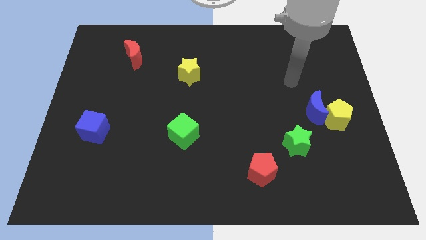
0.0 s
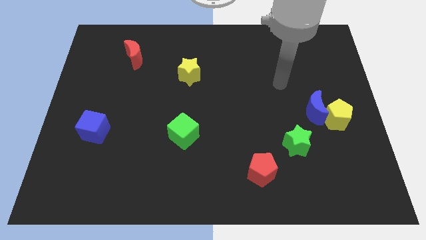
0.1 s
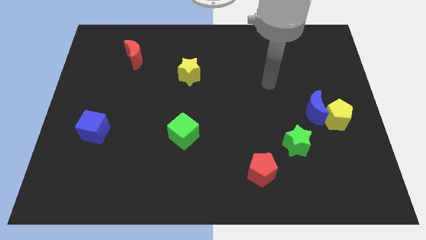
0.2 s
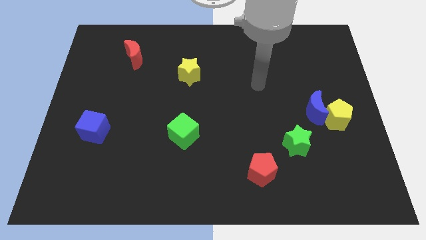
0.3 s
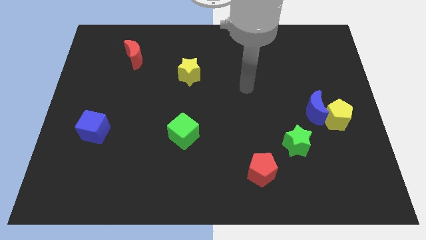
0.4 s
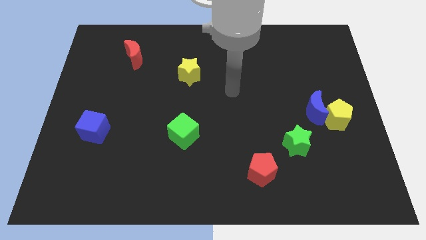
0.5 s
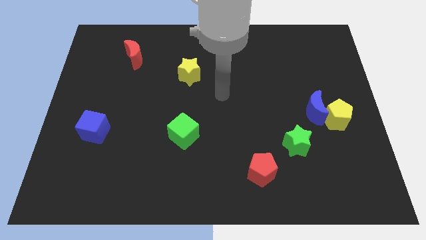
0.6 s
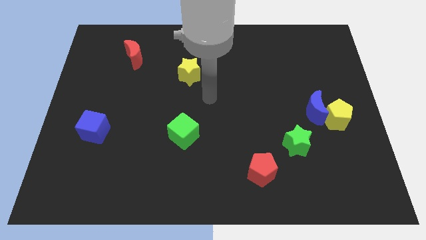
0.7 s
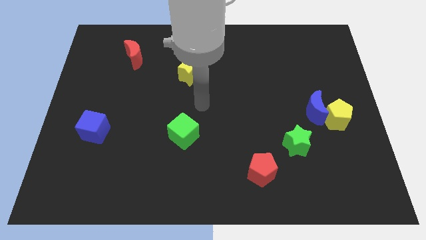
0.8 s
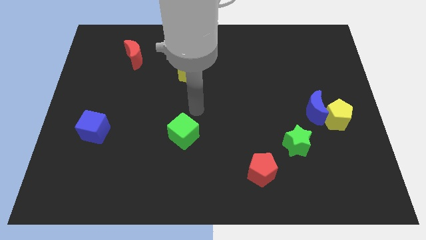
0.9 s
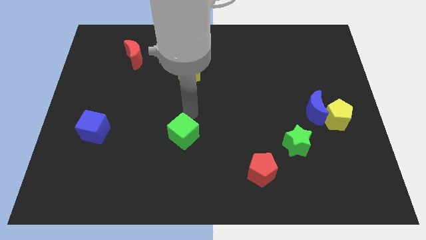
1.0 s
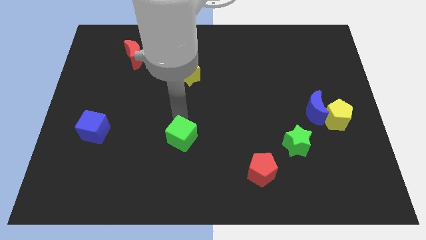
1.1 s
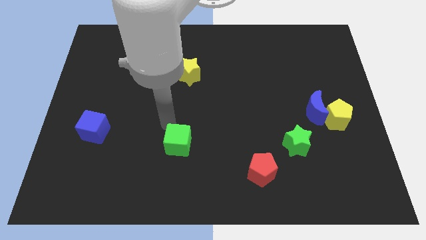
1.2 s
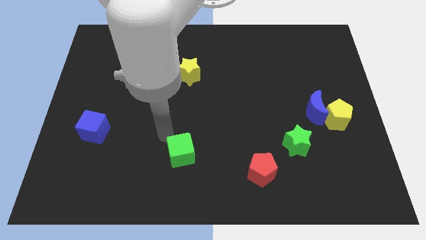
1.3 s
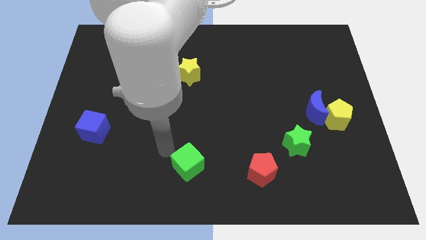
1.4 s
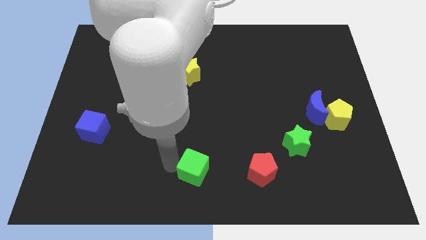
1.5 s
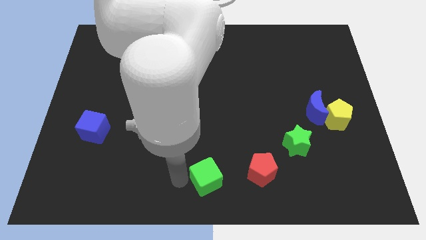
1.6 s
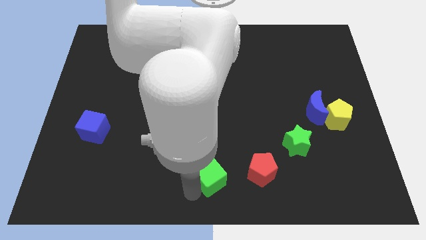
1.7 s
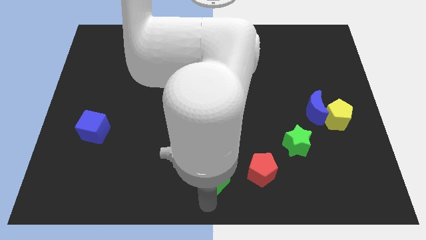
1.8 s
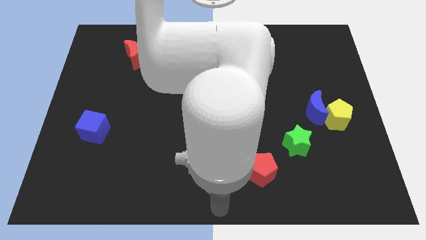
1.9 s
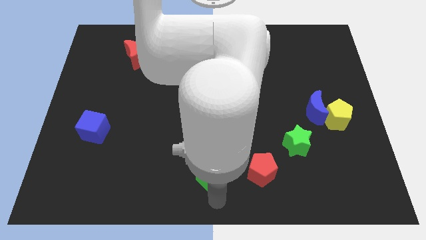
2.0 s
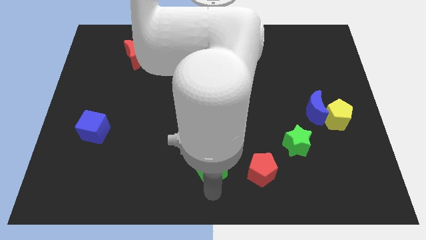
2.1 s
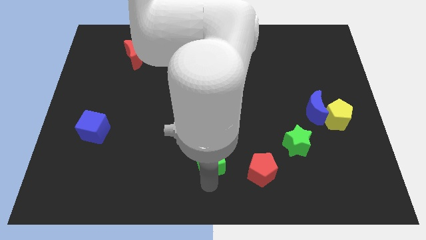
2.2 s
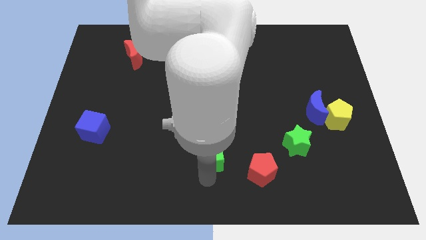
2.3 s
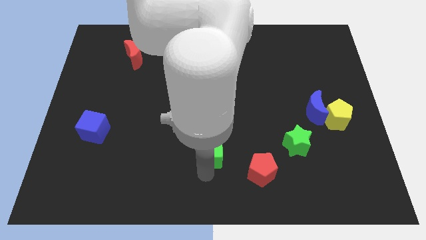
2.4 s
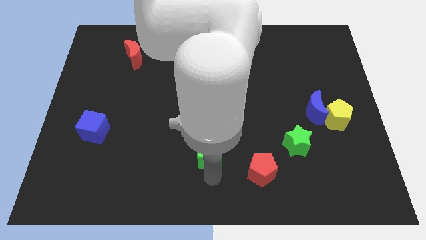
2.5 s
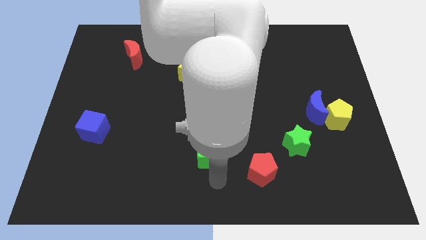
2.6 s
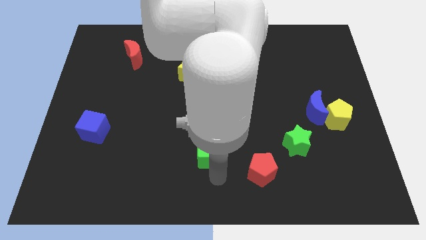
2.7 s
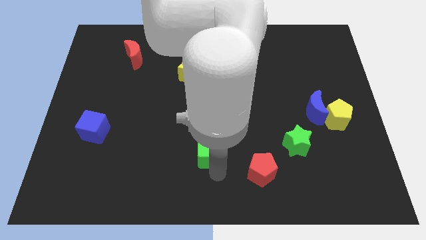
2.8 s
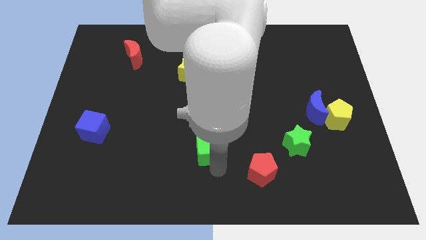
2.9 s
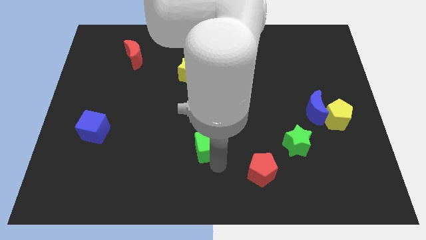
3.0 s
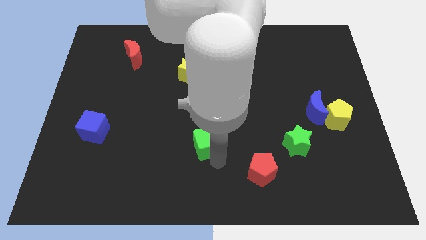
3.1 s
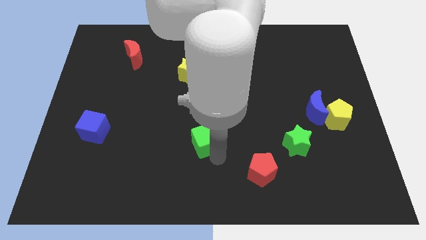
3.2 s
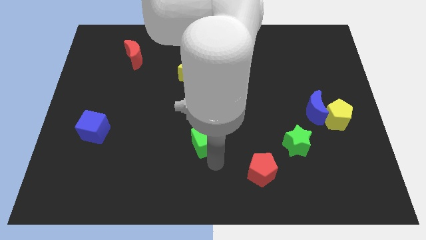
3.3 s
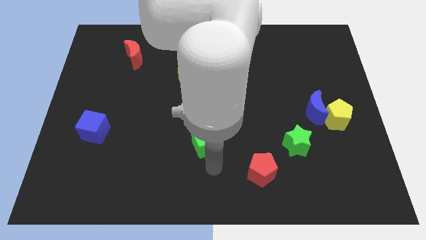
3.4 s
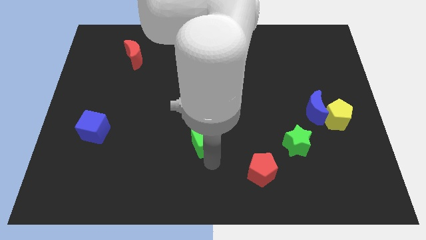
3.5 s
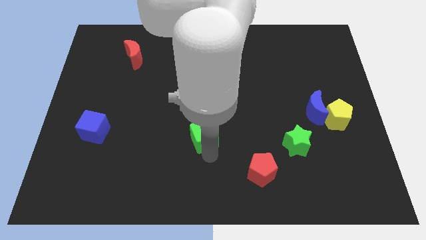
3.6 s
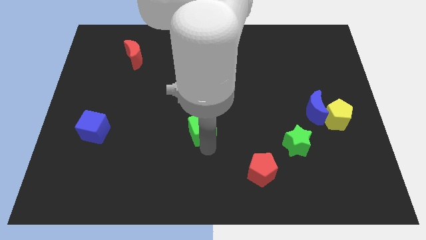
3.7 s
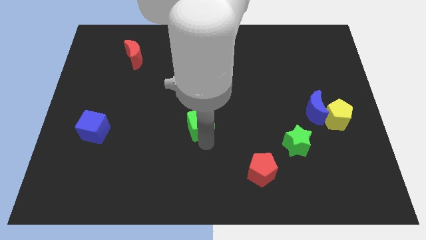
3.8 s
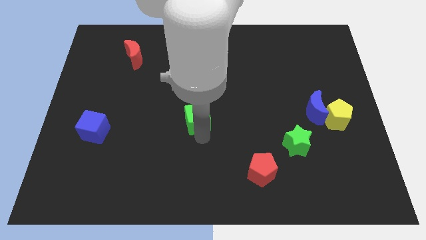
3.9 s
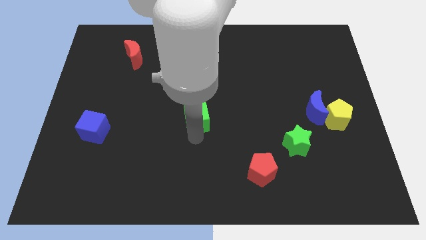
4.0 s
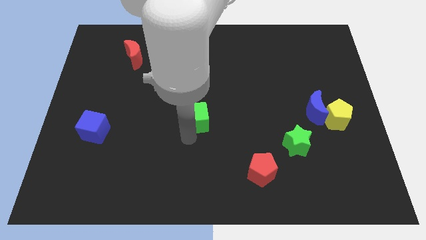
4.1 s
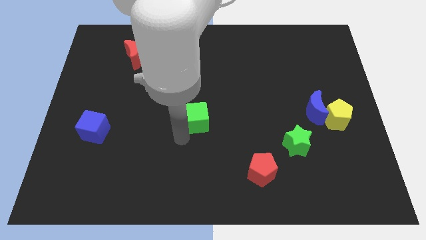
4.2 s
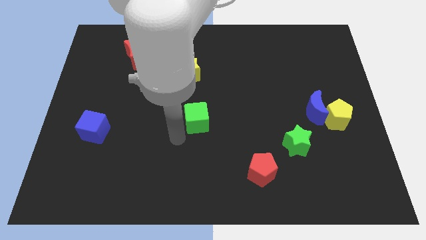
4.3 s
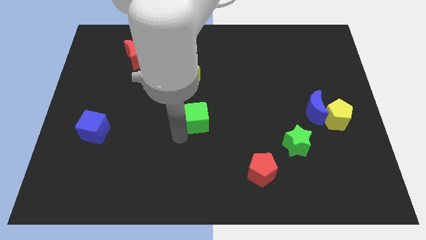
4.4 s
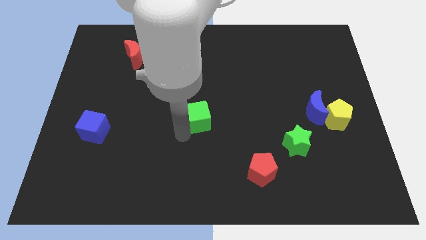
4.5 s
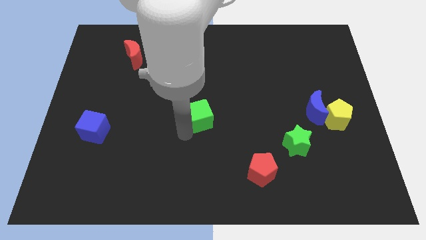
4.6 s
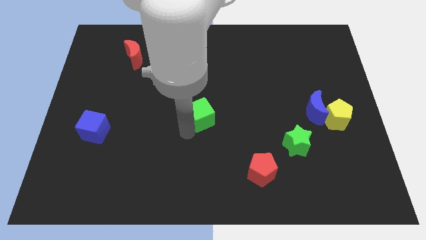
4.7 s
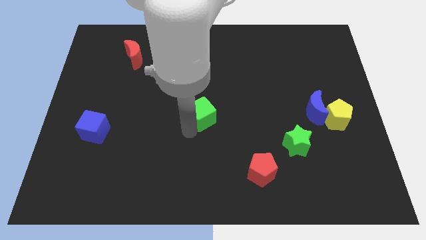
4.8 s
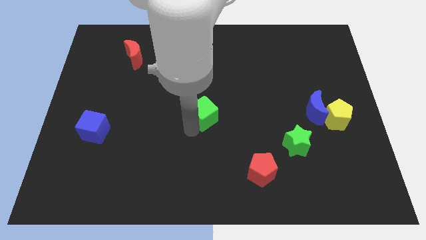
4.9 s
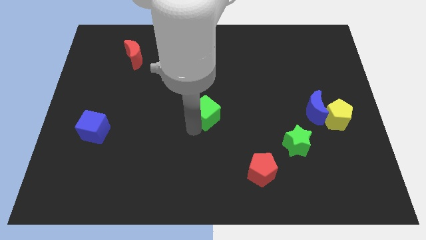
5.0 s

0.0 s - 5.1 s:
slide the green cube a little up and then right

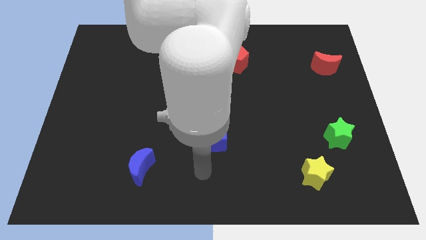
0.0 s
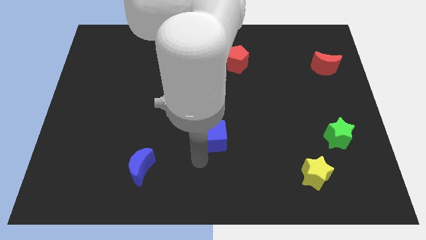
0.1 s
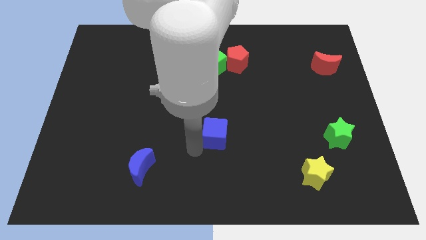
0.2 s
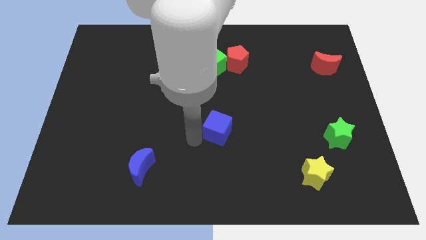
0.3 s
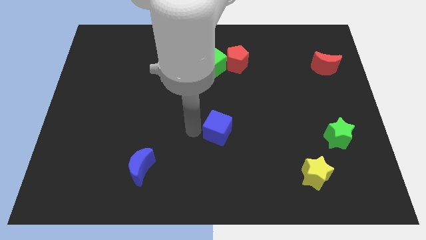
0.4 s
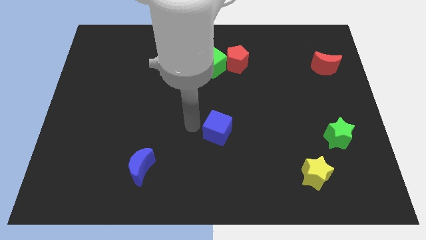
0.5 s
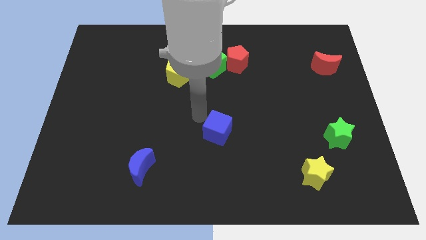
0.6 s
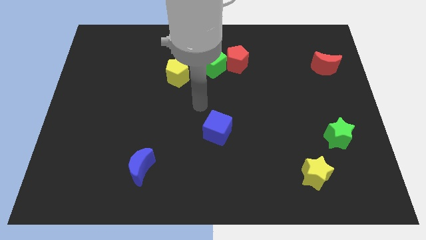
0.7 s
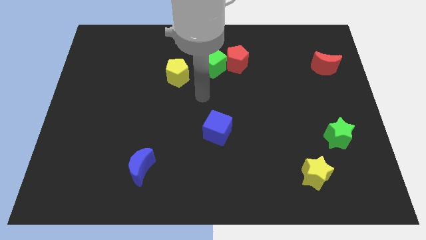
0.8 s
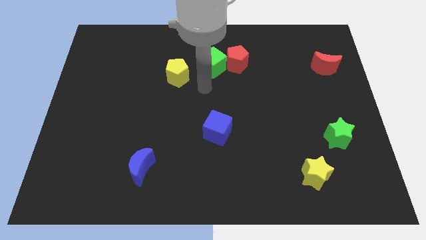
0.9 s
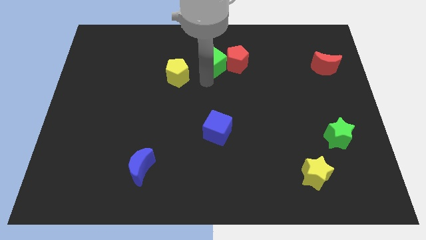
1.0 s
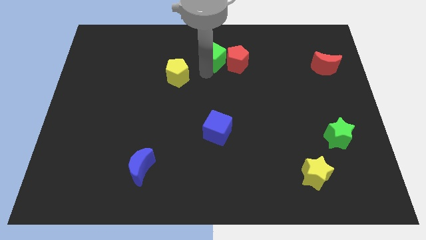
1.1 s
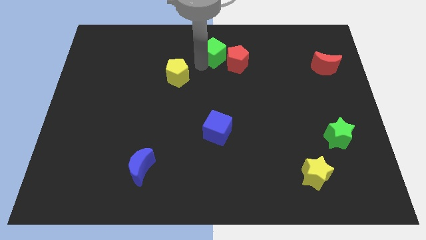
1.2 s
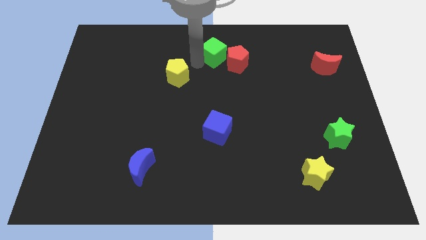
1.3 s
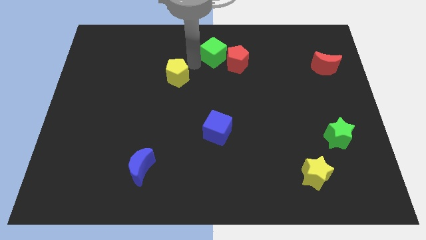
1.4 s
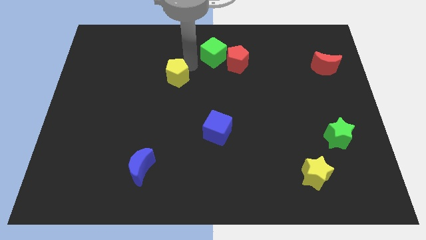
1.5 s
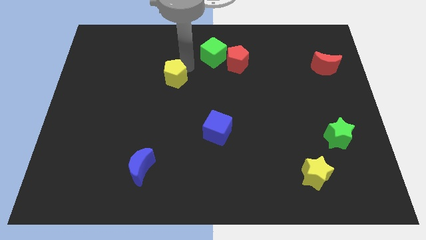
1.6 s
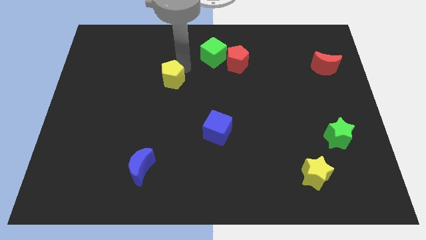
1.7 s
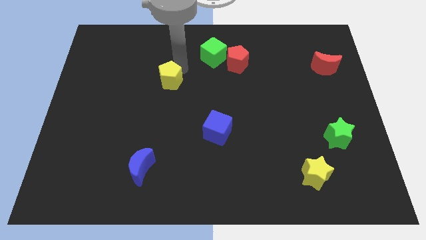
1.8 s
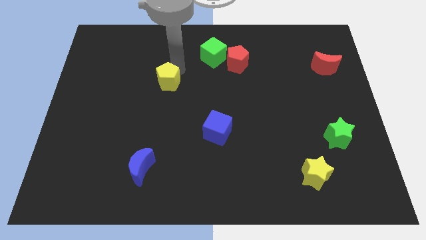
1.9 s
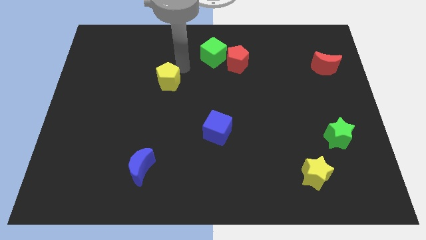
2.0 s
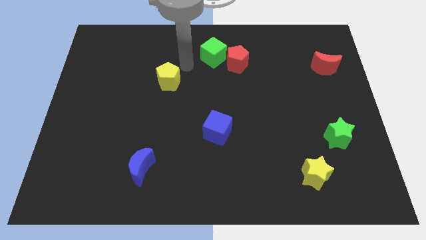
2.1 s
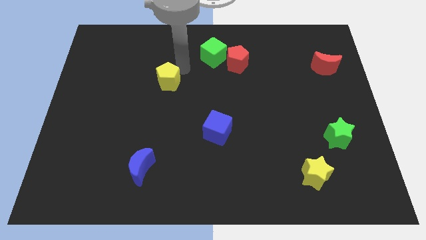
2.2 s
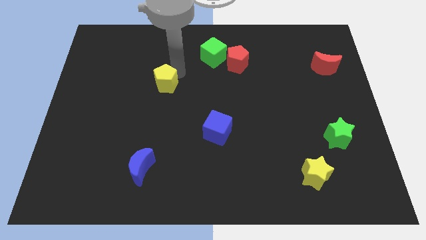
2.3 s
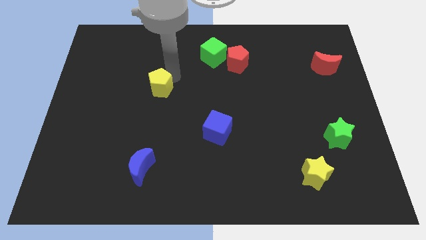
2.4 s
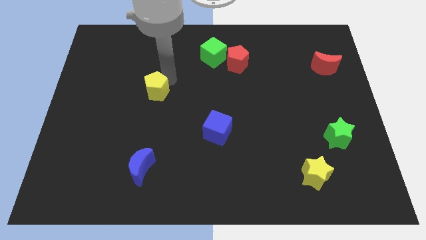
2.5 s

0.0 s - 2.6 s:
slightly push the yellow pentagon downwards and left diagonally

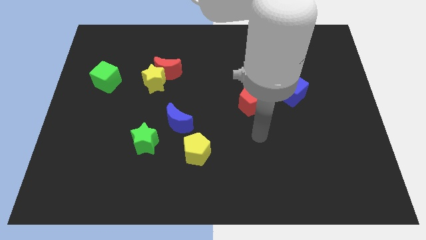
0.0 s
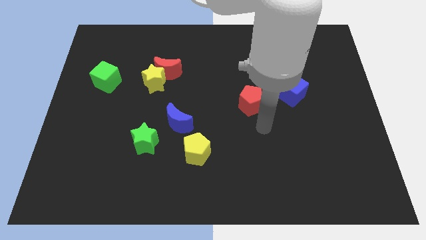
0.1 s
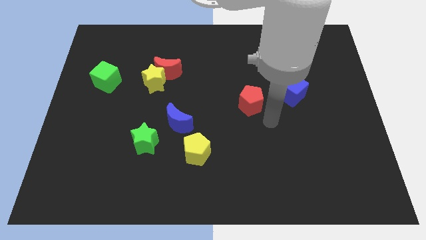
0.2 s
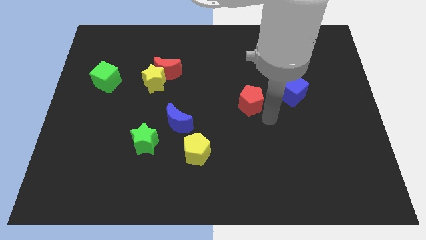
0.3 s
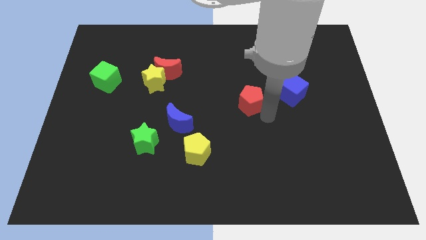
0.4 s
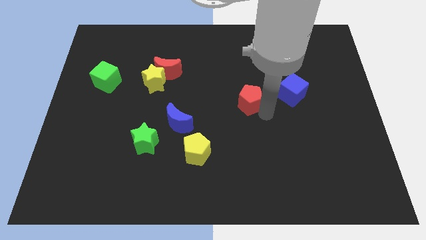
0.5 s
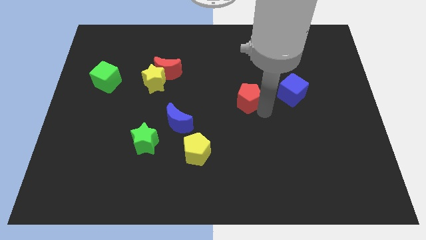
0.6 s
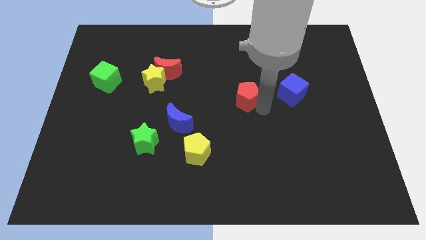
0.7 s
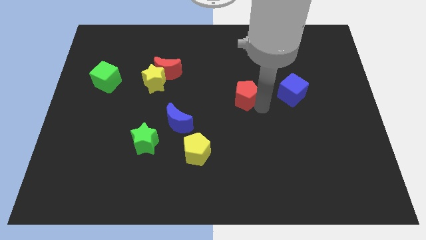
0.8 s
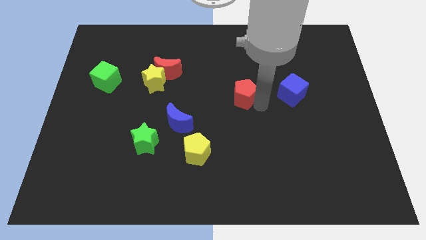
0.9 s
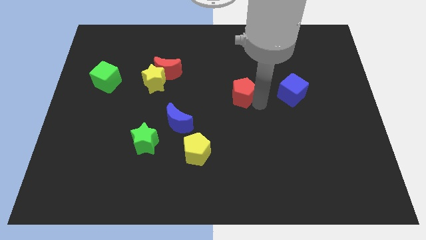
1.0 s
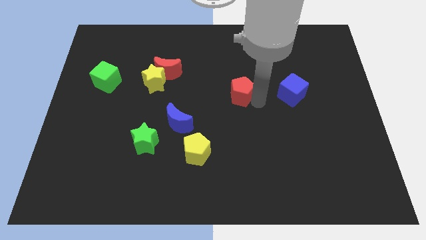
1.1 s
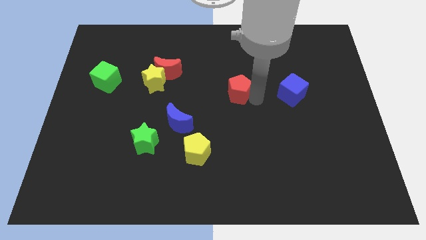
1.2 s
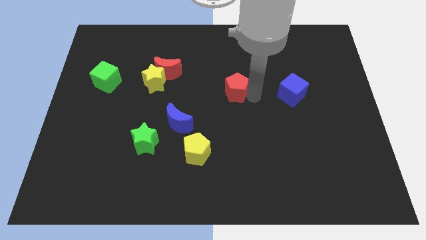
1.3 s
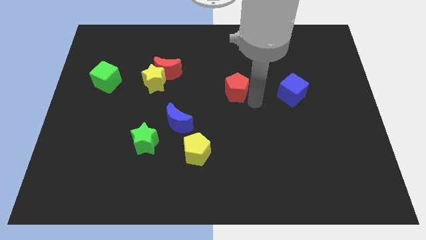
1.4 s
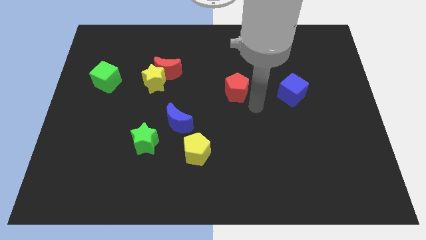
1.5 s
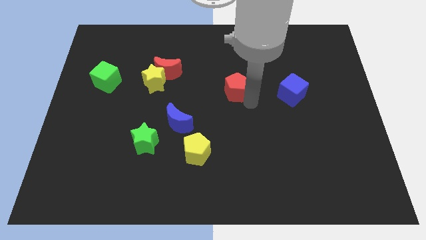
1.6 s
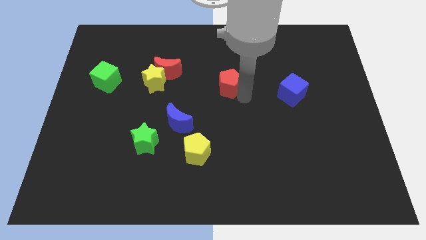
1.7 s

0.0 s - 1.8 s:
push the red pentagon up and left somewhat
